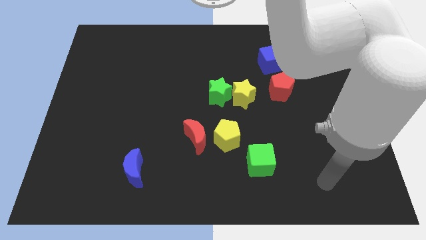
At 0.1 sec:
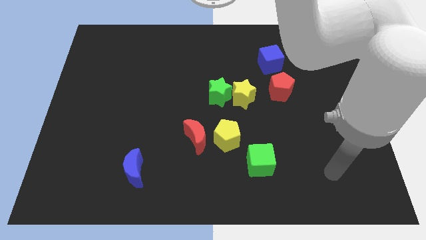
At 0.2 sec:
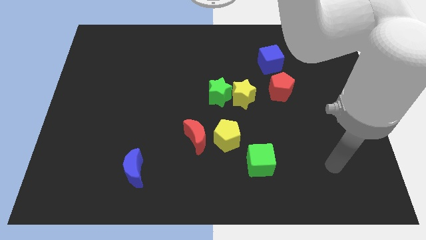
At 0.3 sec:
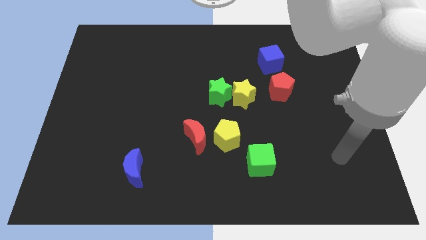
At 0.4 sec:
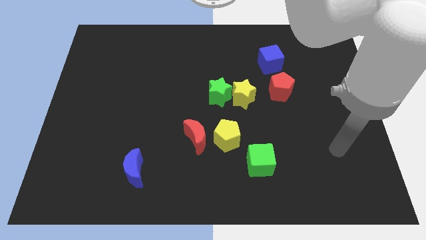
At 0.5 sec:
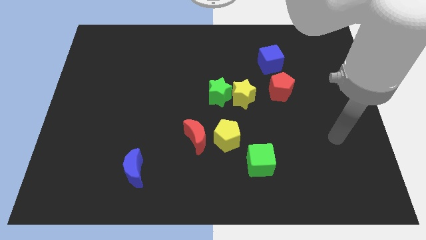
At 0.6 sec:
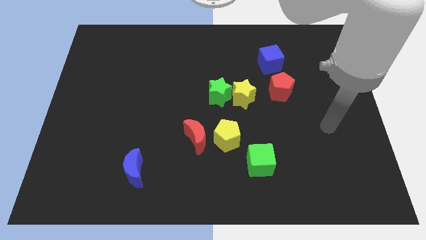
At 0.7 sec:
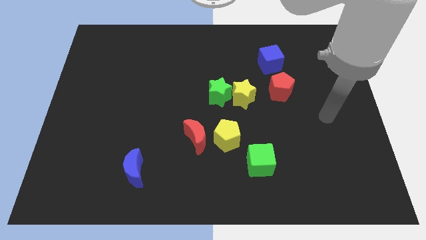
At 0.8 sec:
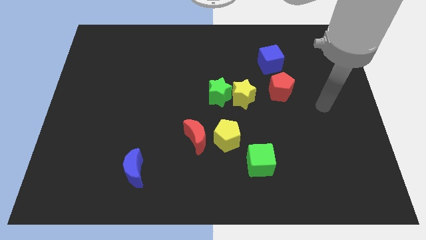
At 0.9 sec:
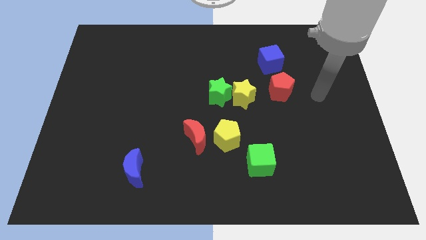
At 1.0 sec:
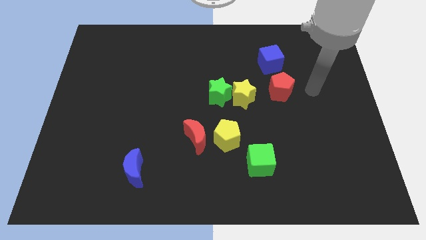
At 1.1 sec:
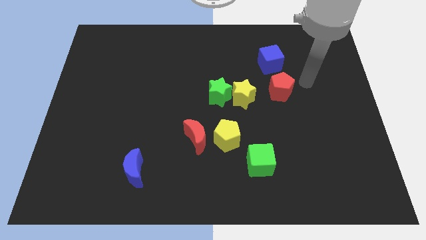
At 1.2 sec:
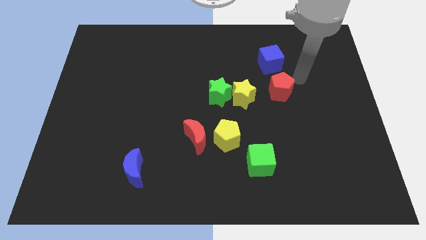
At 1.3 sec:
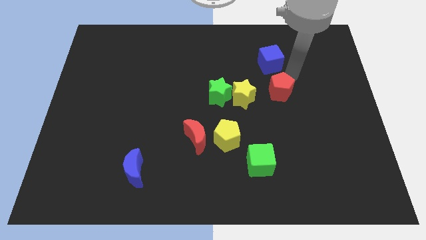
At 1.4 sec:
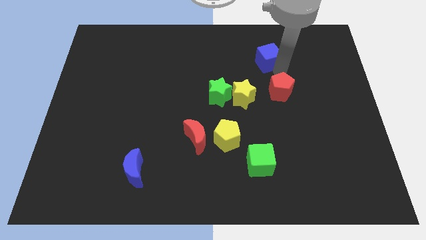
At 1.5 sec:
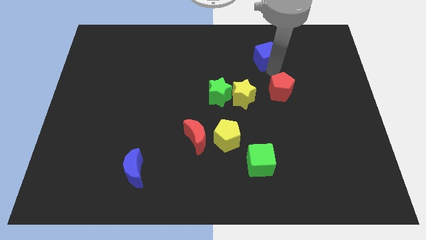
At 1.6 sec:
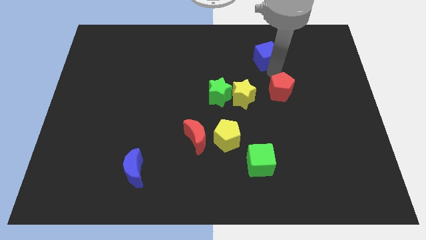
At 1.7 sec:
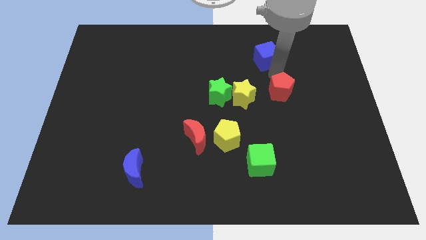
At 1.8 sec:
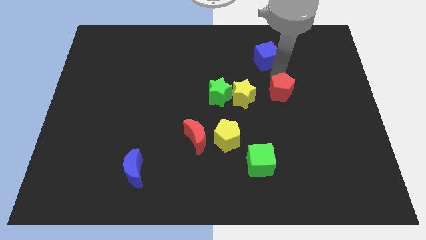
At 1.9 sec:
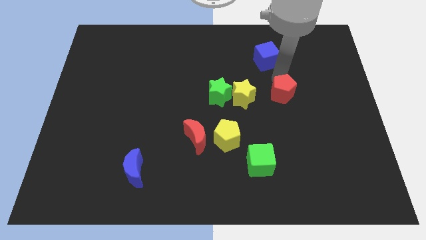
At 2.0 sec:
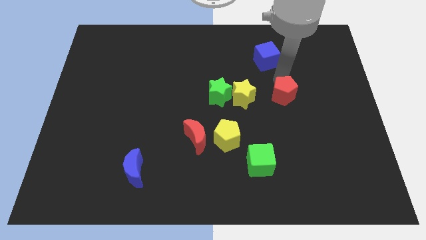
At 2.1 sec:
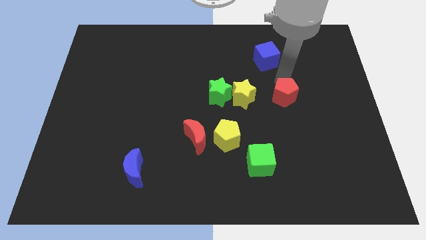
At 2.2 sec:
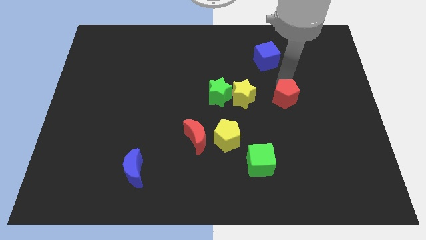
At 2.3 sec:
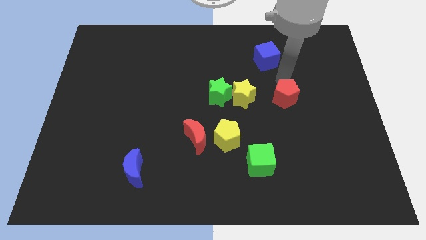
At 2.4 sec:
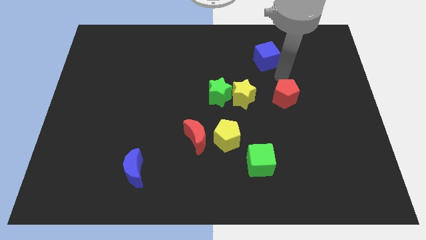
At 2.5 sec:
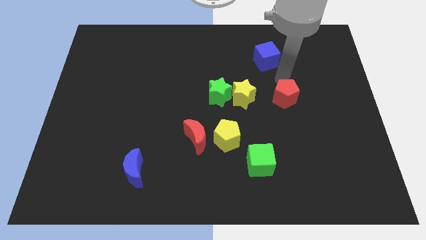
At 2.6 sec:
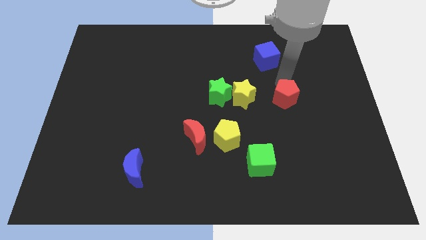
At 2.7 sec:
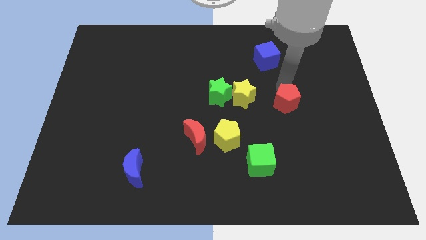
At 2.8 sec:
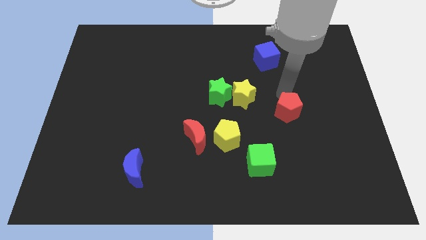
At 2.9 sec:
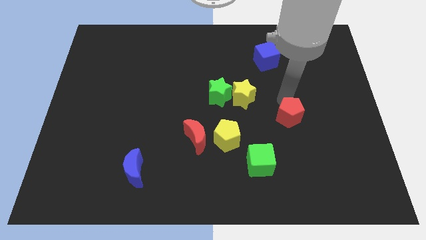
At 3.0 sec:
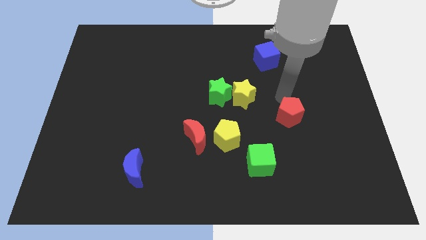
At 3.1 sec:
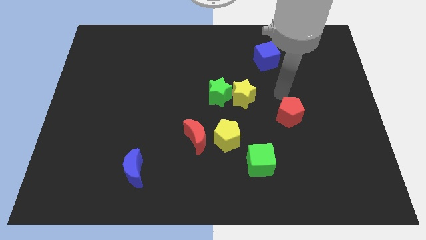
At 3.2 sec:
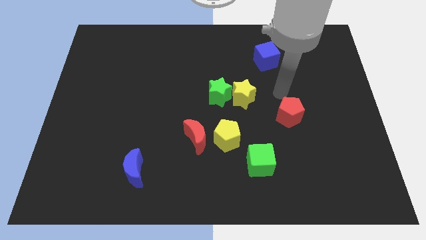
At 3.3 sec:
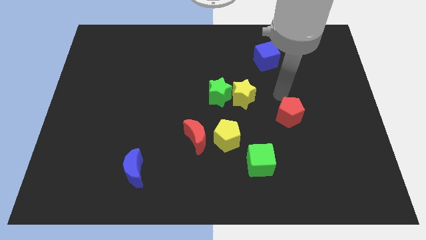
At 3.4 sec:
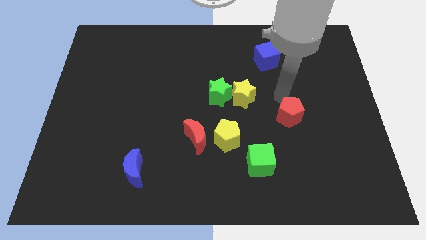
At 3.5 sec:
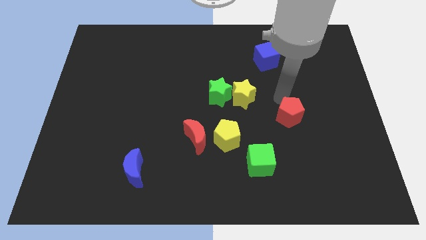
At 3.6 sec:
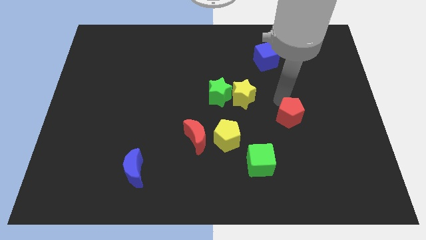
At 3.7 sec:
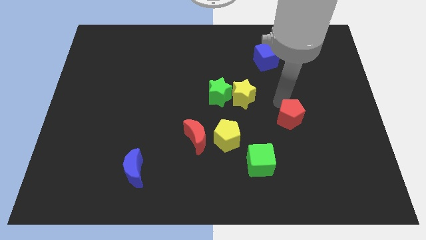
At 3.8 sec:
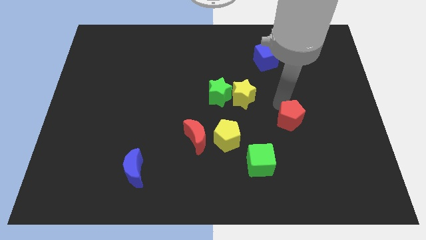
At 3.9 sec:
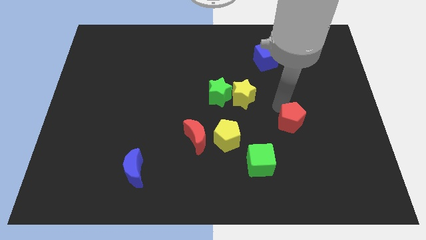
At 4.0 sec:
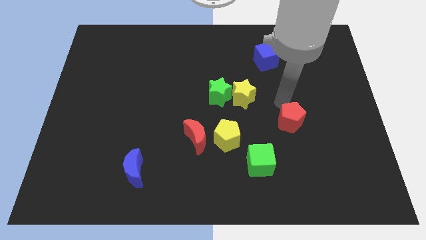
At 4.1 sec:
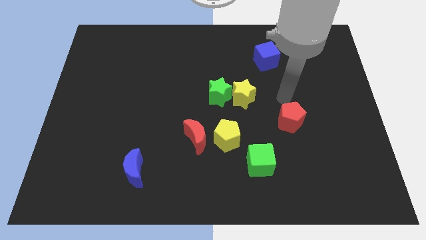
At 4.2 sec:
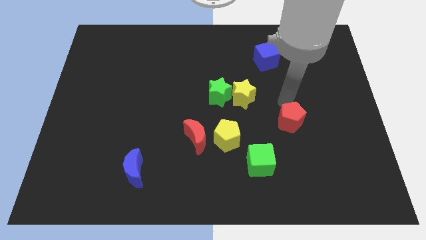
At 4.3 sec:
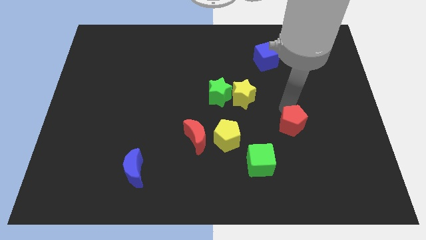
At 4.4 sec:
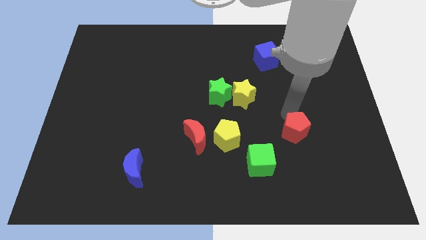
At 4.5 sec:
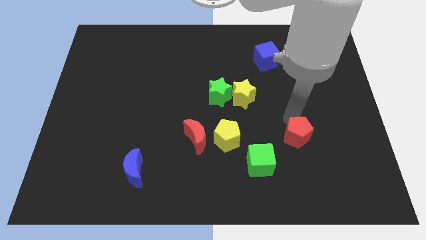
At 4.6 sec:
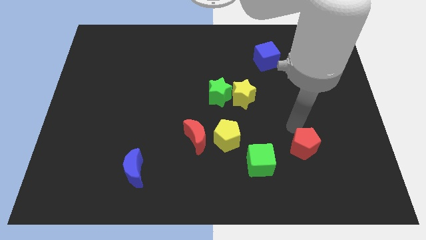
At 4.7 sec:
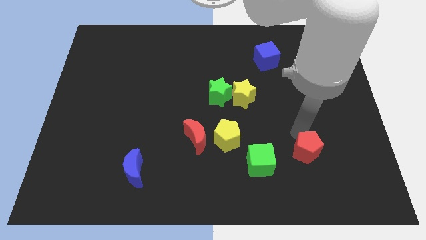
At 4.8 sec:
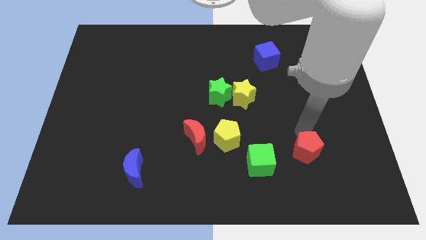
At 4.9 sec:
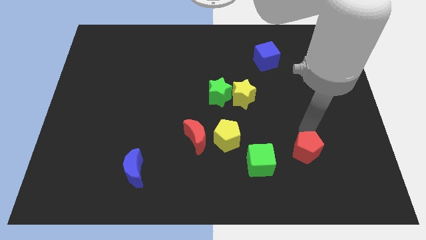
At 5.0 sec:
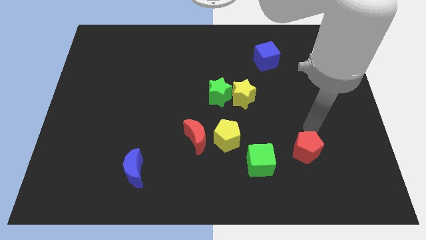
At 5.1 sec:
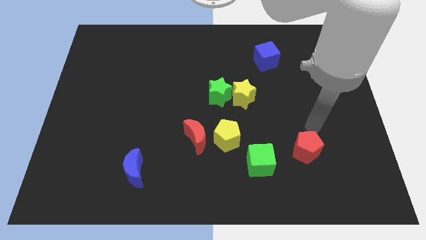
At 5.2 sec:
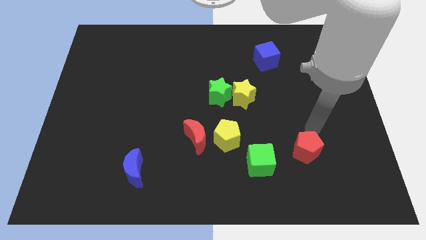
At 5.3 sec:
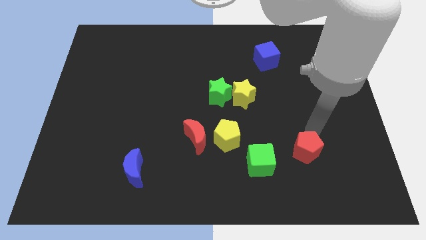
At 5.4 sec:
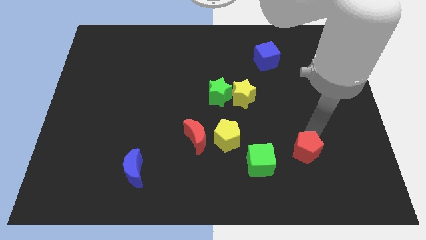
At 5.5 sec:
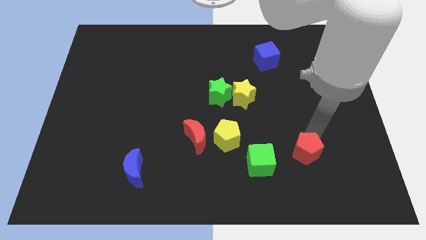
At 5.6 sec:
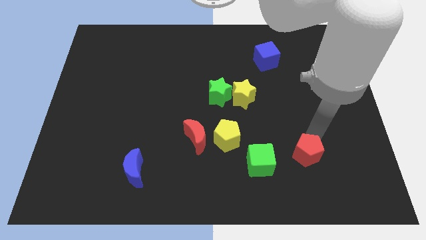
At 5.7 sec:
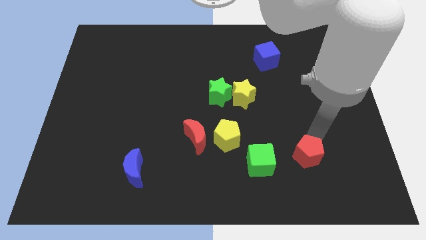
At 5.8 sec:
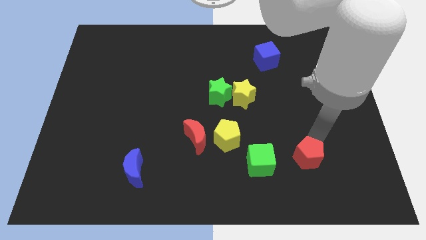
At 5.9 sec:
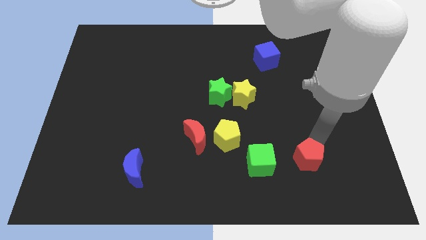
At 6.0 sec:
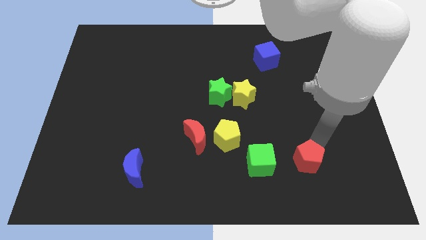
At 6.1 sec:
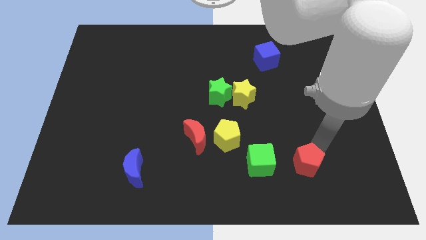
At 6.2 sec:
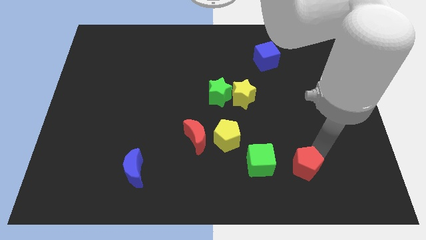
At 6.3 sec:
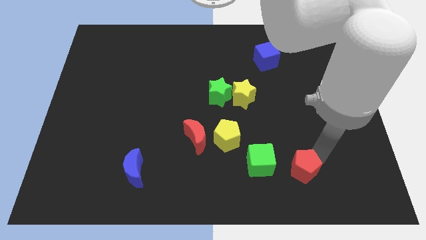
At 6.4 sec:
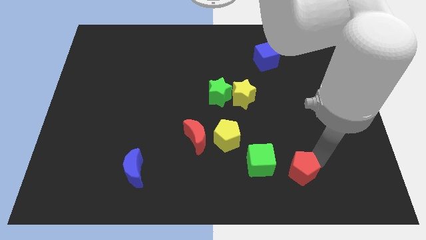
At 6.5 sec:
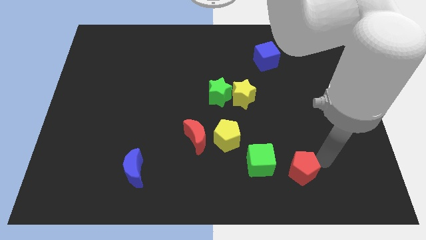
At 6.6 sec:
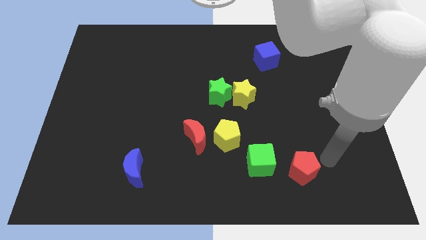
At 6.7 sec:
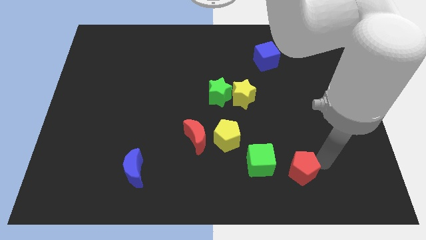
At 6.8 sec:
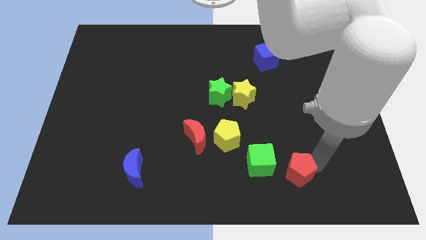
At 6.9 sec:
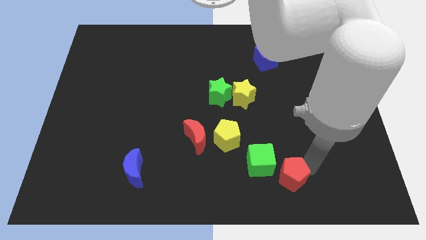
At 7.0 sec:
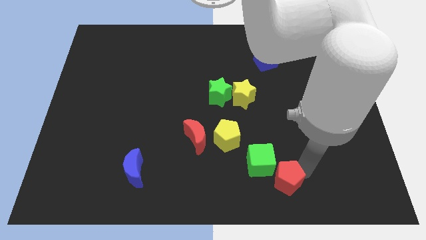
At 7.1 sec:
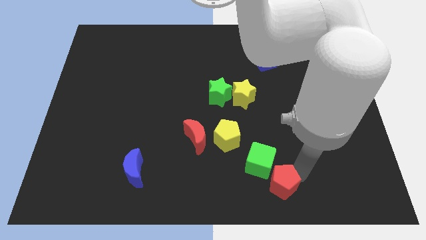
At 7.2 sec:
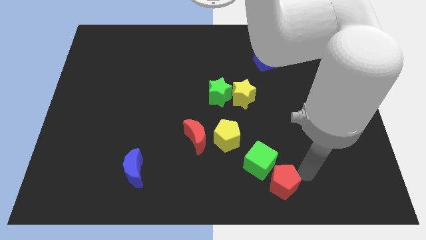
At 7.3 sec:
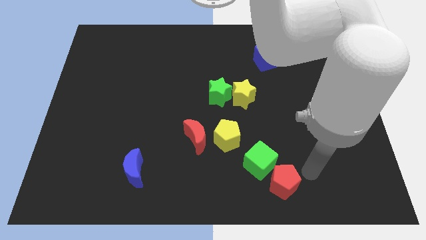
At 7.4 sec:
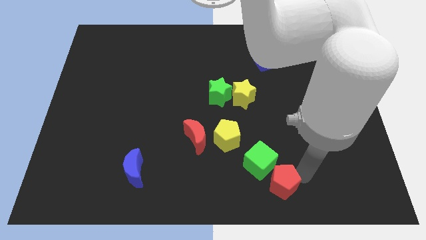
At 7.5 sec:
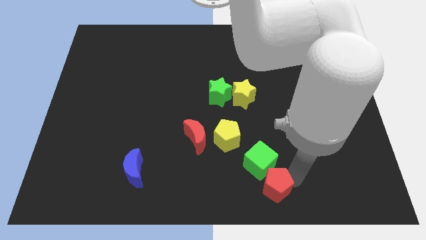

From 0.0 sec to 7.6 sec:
slide the red pentagon to the bottom side

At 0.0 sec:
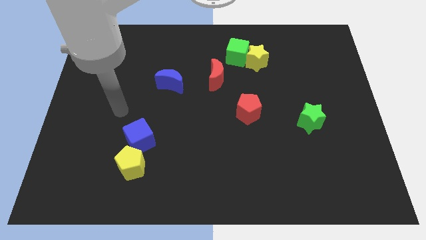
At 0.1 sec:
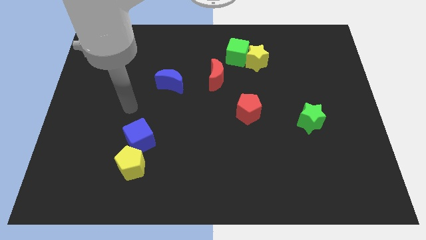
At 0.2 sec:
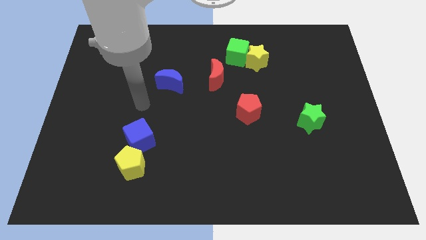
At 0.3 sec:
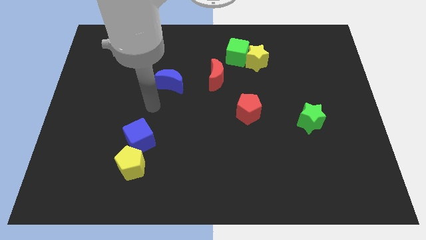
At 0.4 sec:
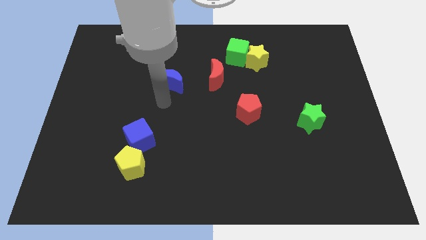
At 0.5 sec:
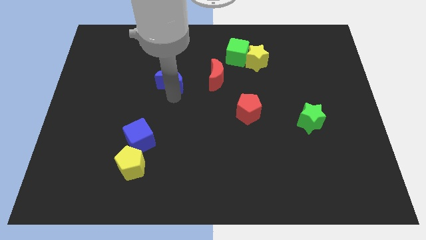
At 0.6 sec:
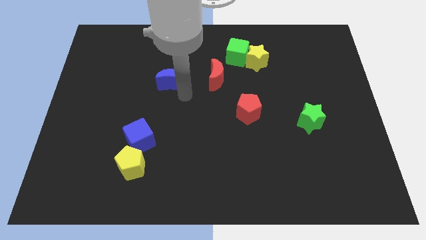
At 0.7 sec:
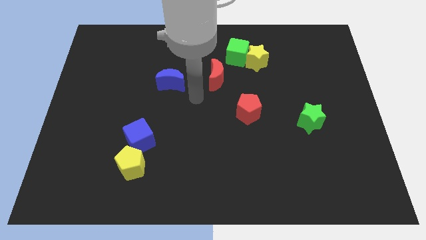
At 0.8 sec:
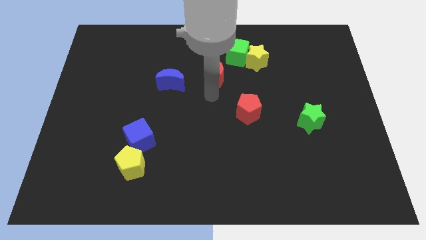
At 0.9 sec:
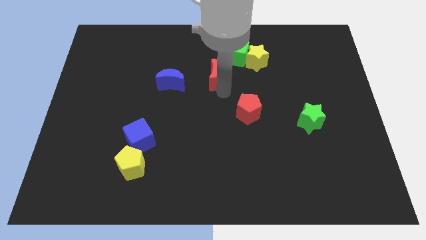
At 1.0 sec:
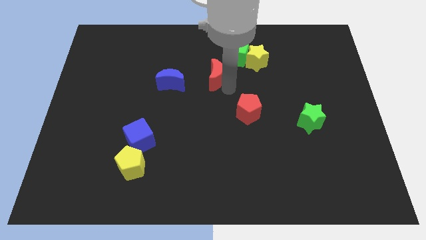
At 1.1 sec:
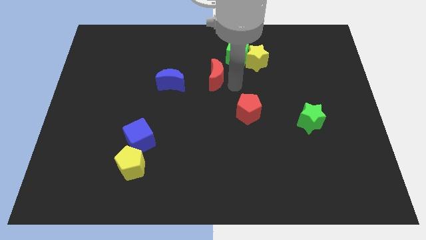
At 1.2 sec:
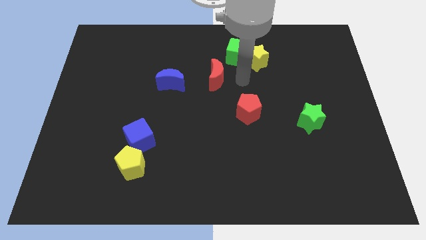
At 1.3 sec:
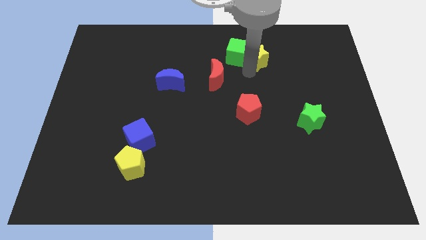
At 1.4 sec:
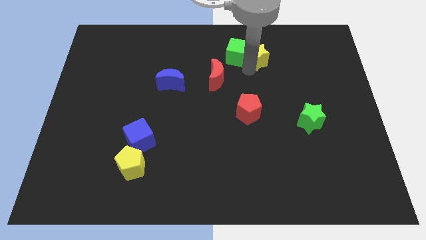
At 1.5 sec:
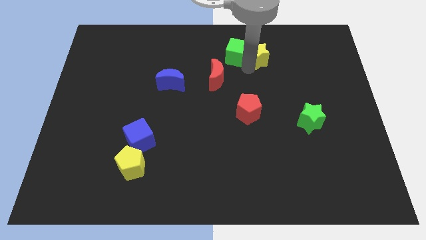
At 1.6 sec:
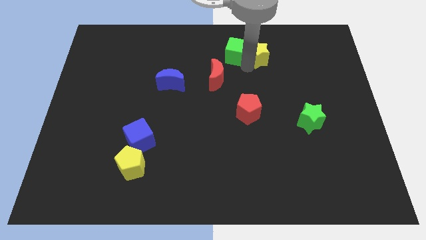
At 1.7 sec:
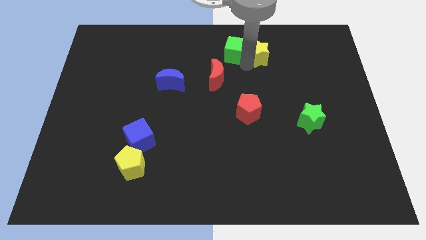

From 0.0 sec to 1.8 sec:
slide the green cube to the top
